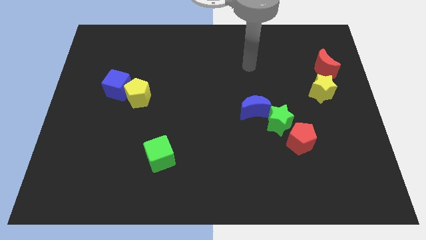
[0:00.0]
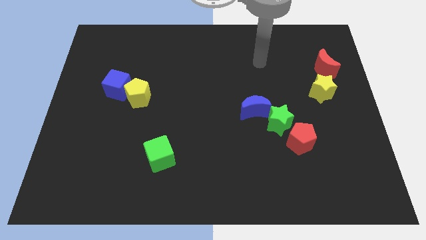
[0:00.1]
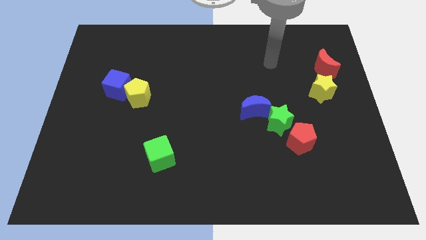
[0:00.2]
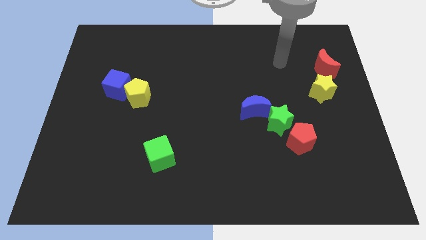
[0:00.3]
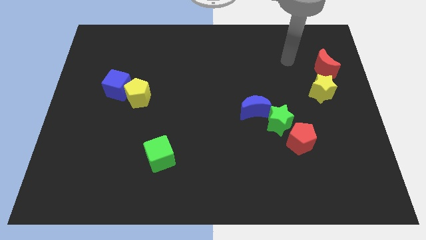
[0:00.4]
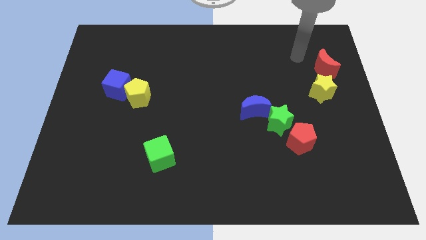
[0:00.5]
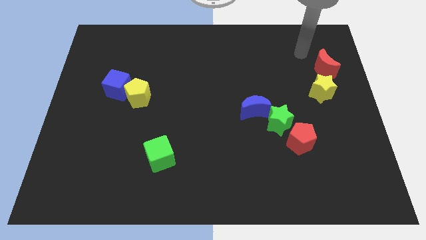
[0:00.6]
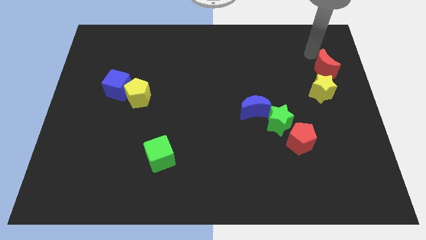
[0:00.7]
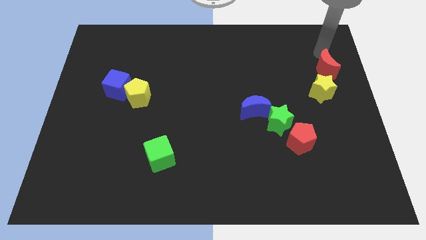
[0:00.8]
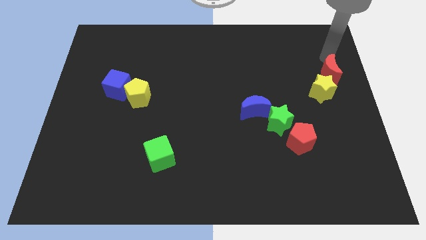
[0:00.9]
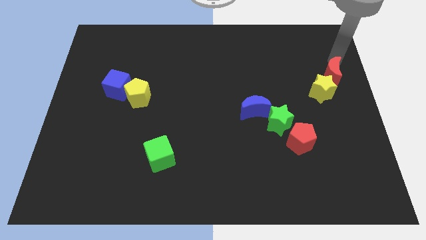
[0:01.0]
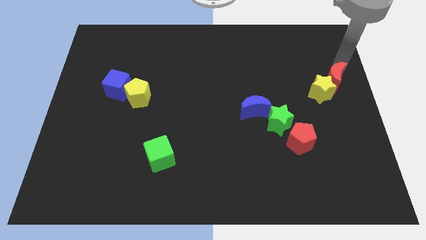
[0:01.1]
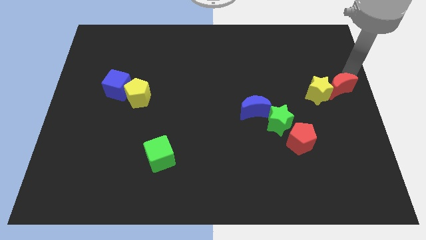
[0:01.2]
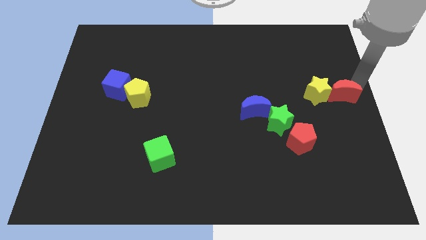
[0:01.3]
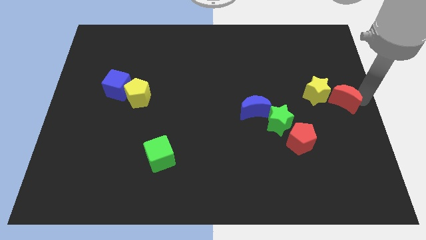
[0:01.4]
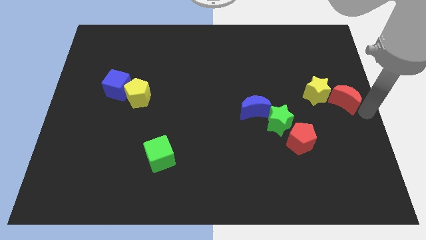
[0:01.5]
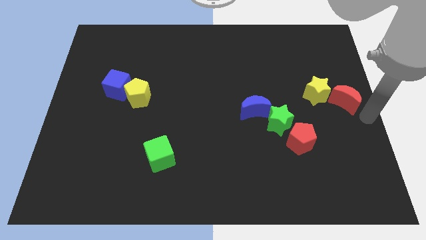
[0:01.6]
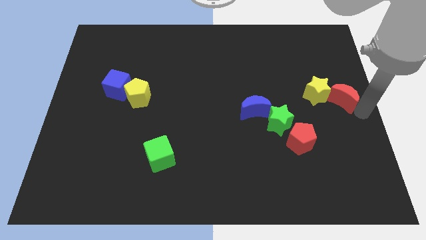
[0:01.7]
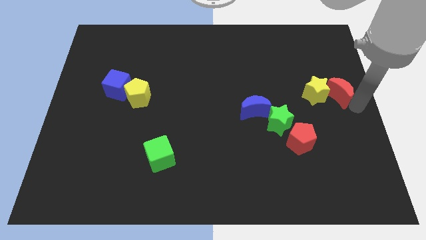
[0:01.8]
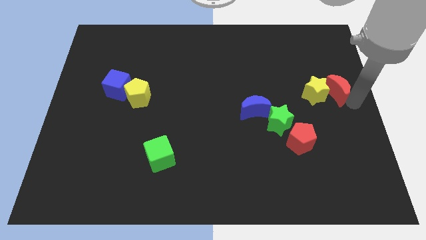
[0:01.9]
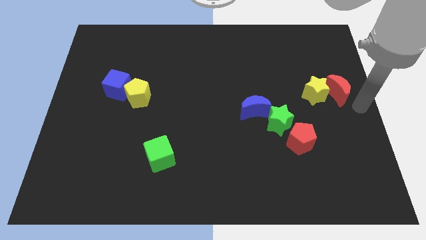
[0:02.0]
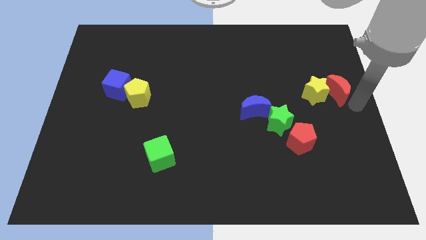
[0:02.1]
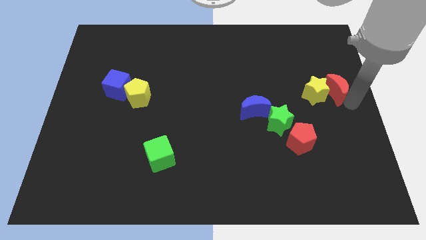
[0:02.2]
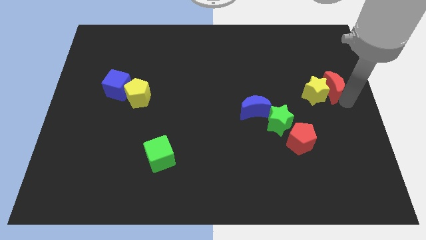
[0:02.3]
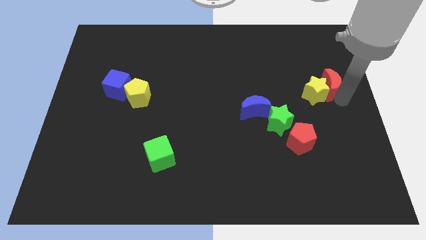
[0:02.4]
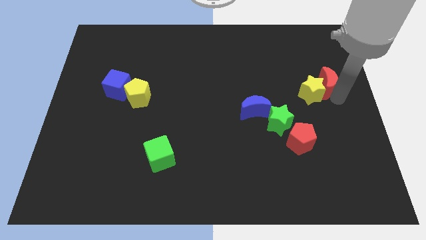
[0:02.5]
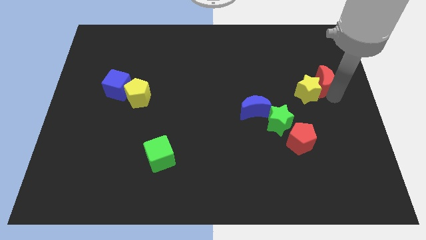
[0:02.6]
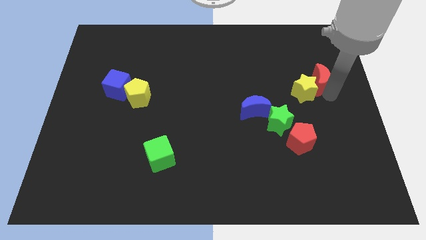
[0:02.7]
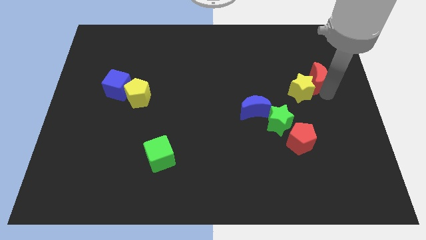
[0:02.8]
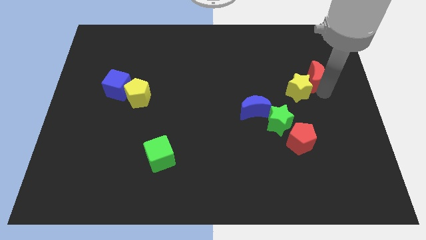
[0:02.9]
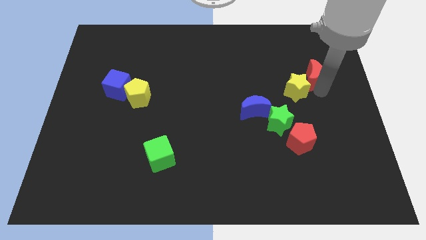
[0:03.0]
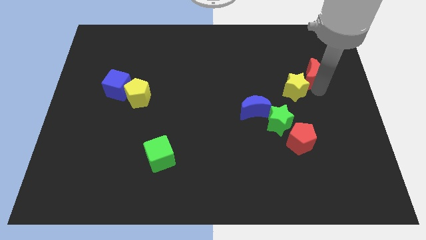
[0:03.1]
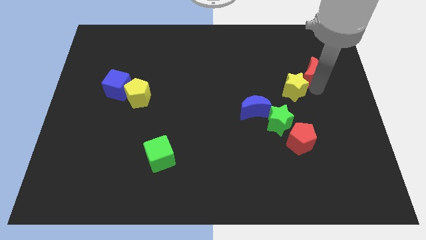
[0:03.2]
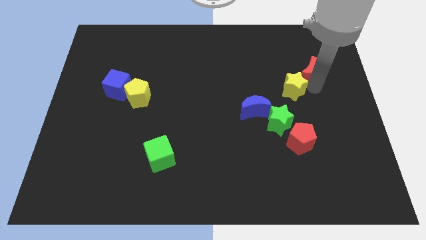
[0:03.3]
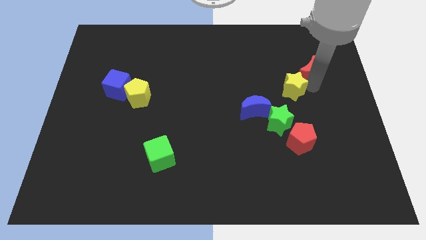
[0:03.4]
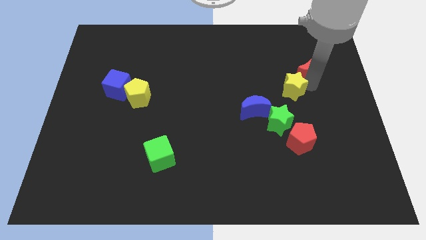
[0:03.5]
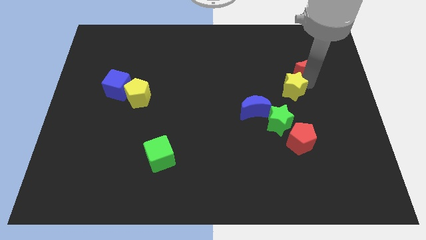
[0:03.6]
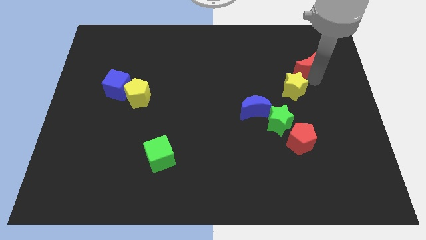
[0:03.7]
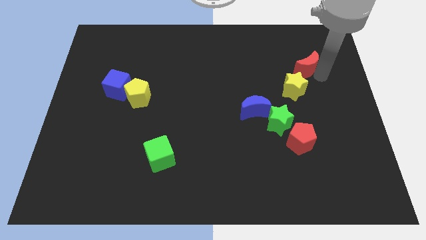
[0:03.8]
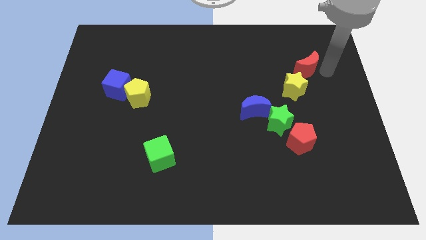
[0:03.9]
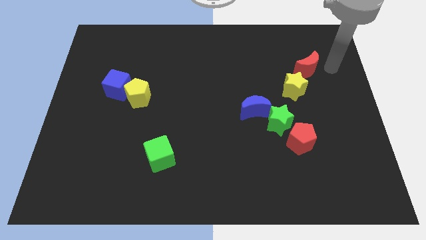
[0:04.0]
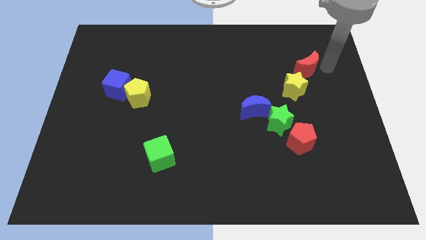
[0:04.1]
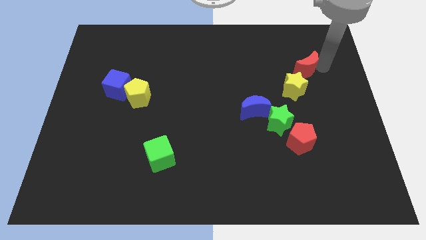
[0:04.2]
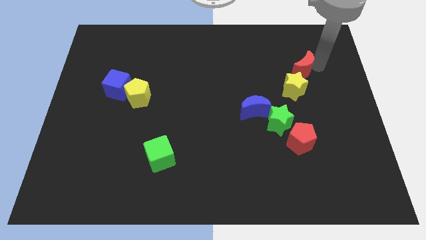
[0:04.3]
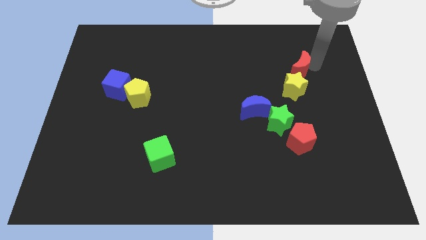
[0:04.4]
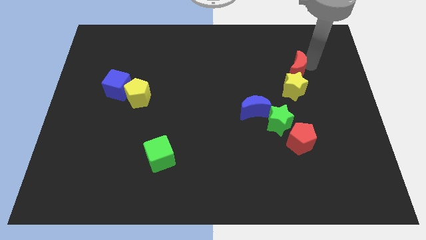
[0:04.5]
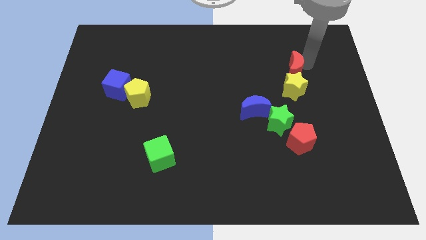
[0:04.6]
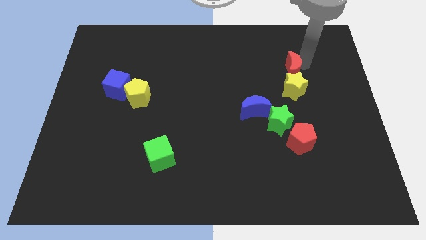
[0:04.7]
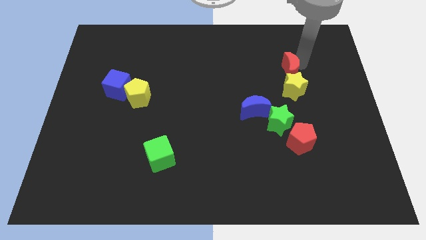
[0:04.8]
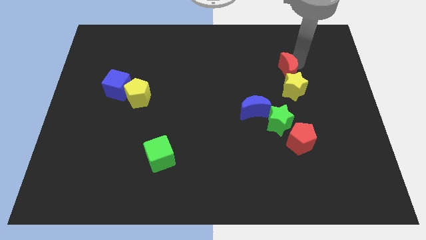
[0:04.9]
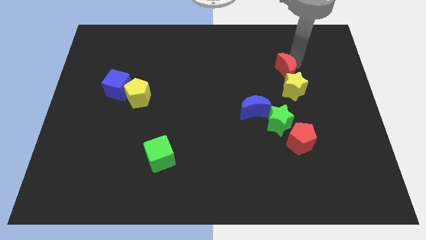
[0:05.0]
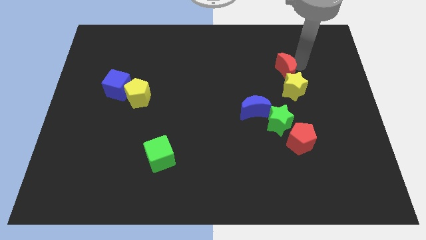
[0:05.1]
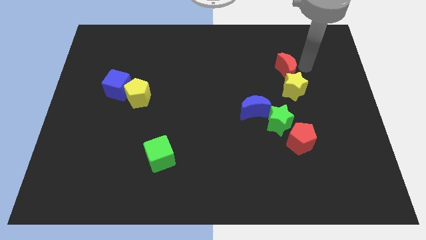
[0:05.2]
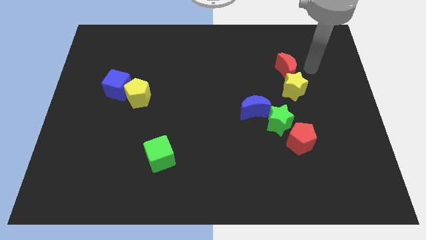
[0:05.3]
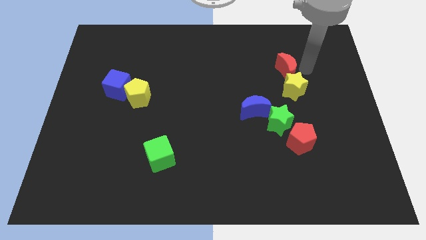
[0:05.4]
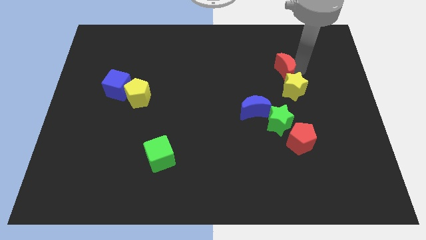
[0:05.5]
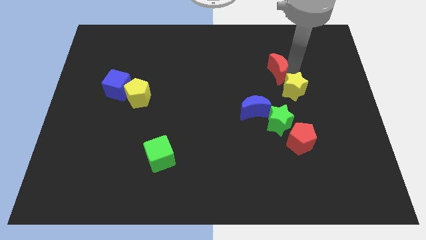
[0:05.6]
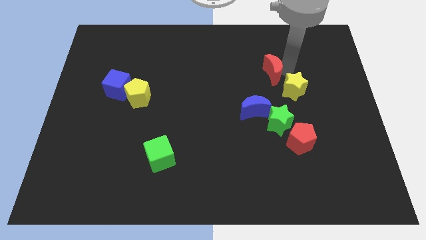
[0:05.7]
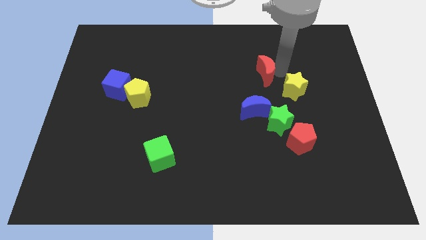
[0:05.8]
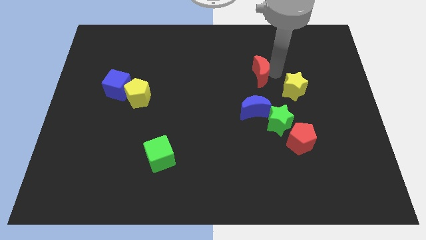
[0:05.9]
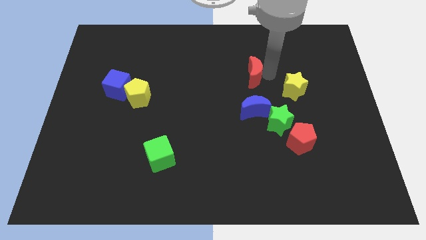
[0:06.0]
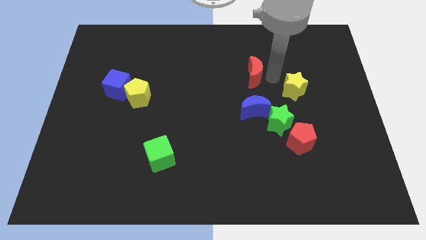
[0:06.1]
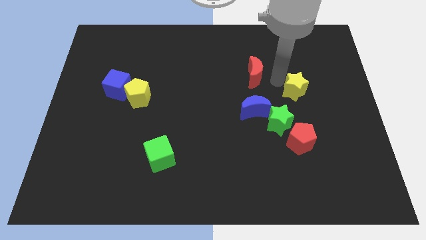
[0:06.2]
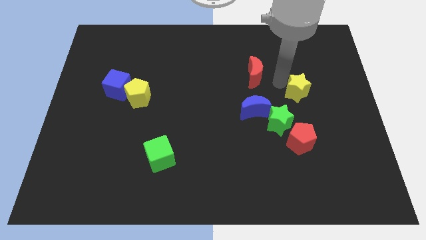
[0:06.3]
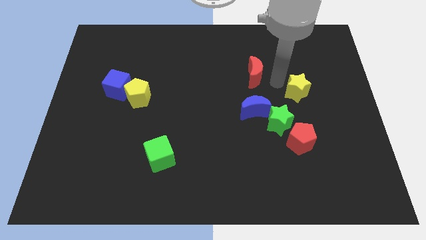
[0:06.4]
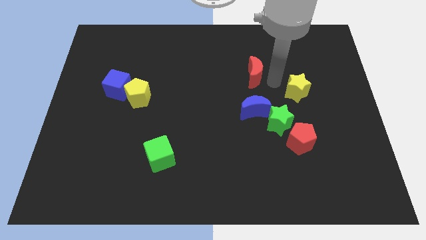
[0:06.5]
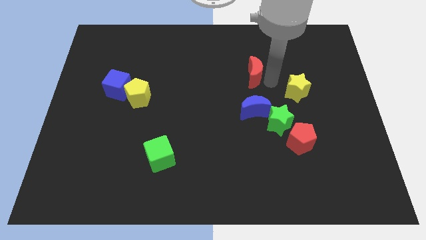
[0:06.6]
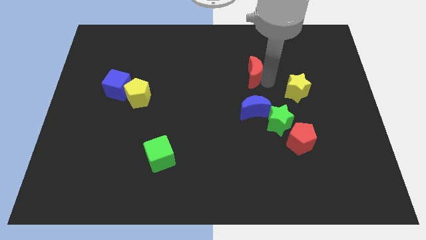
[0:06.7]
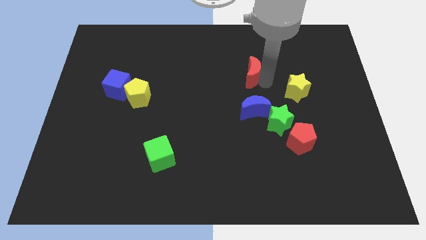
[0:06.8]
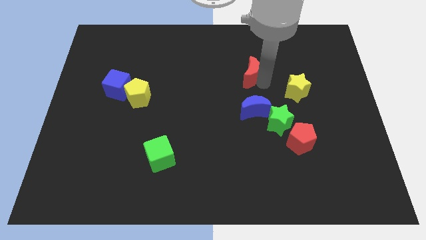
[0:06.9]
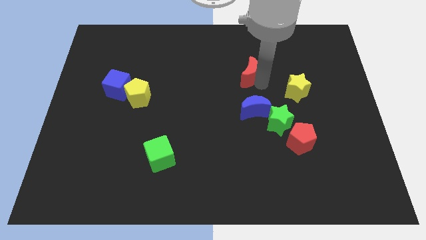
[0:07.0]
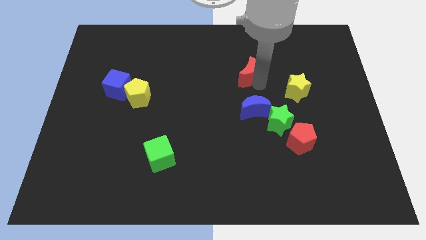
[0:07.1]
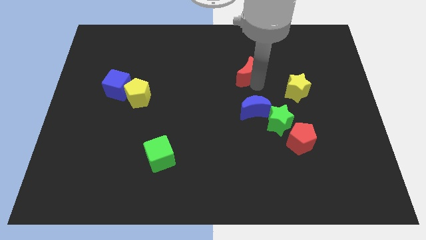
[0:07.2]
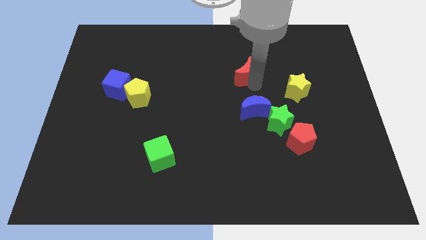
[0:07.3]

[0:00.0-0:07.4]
move the red moon to the left

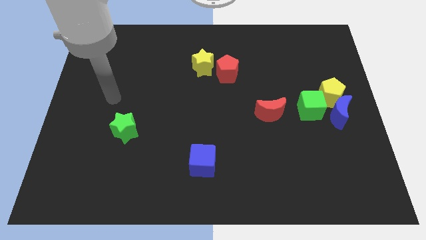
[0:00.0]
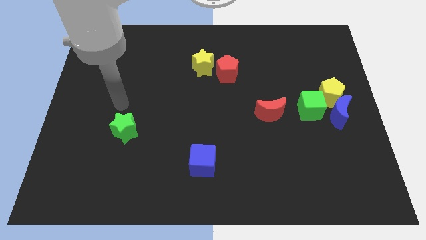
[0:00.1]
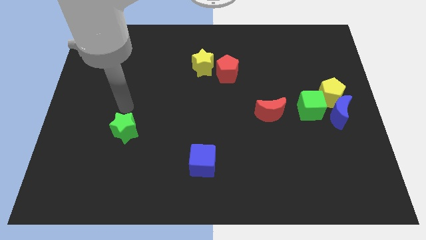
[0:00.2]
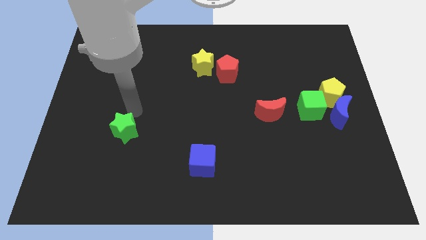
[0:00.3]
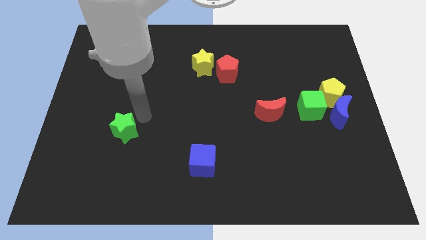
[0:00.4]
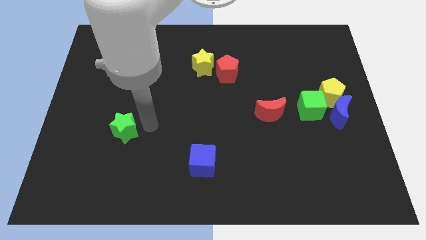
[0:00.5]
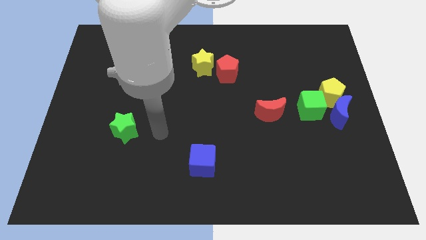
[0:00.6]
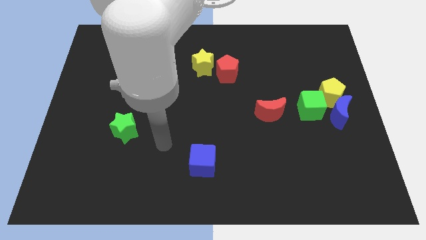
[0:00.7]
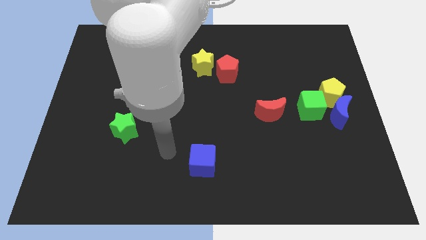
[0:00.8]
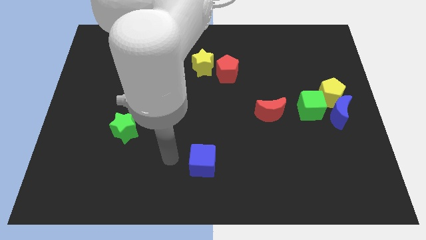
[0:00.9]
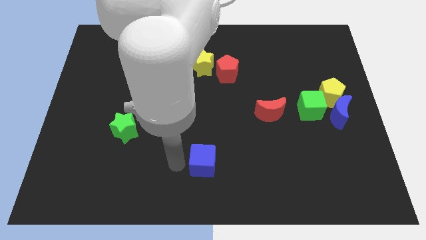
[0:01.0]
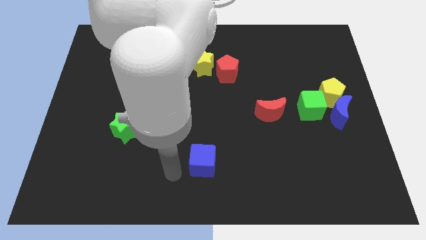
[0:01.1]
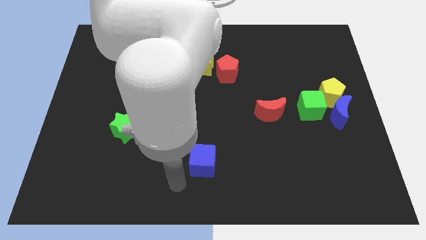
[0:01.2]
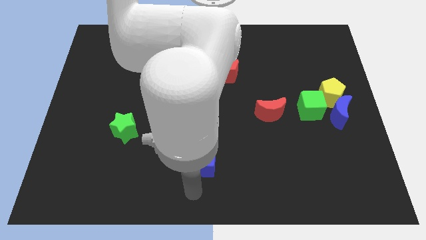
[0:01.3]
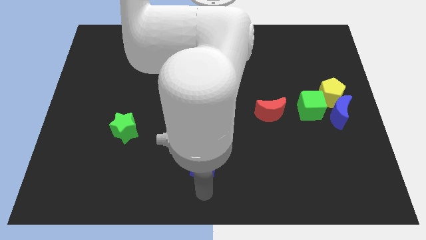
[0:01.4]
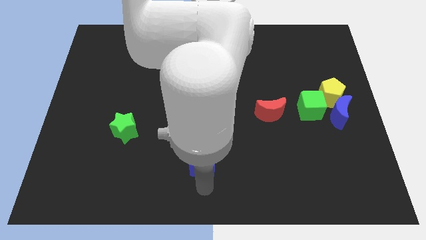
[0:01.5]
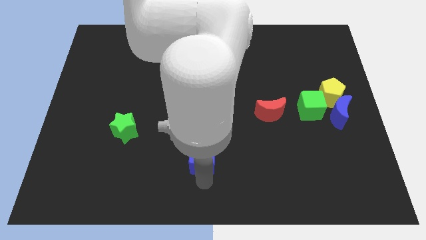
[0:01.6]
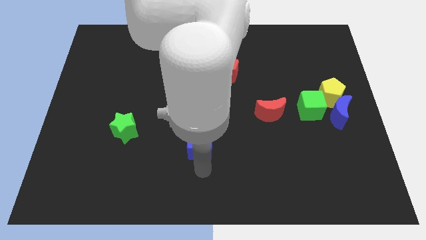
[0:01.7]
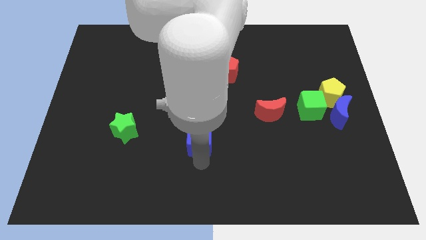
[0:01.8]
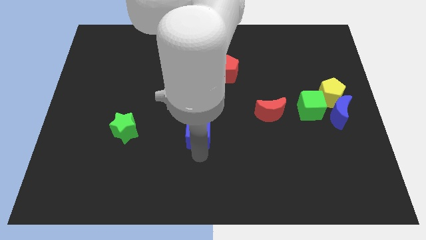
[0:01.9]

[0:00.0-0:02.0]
move the blue cube a little bit up
